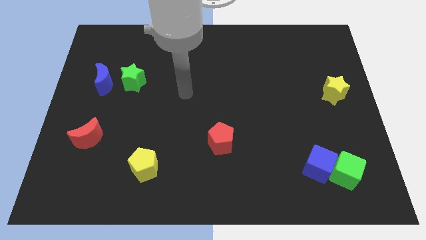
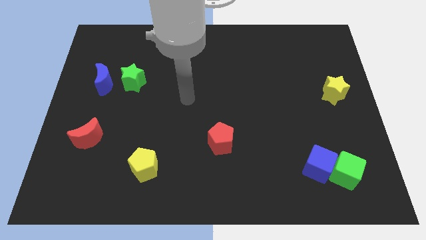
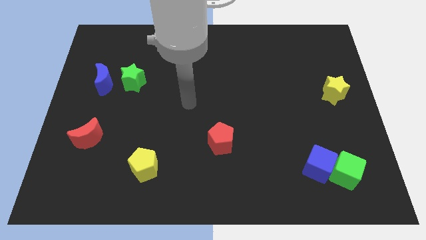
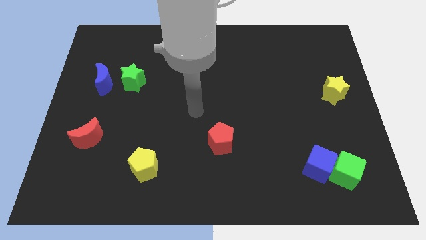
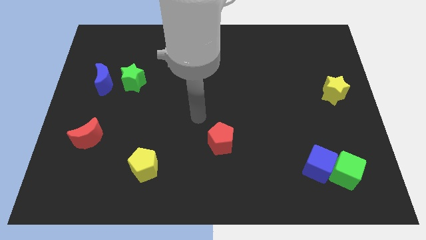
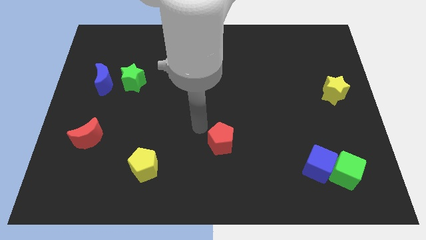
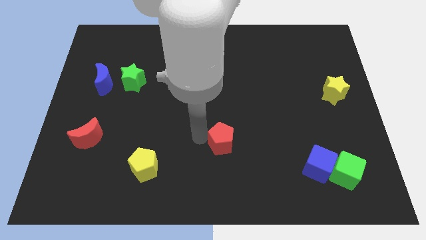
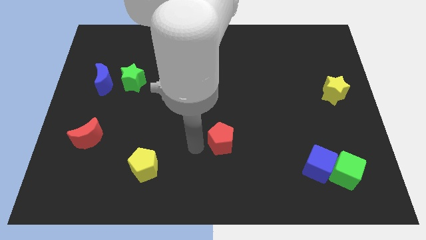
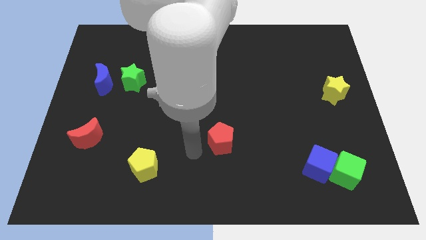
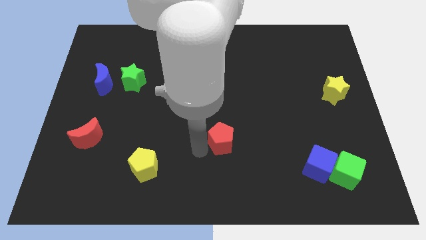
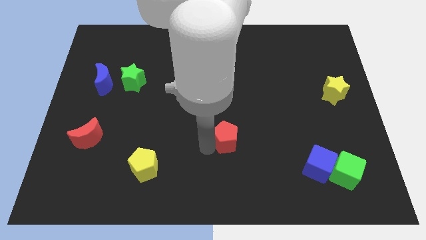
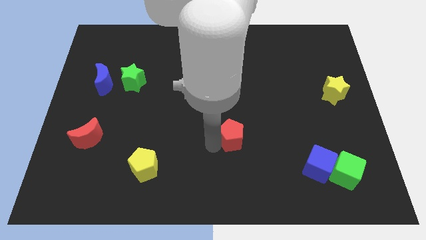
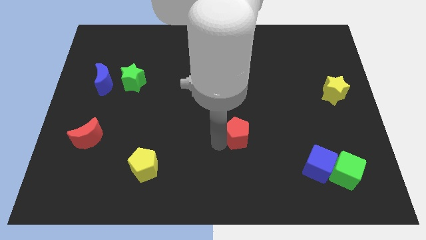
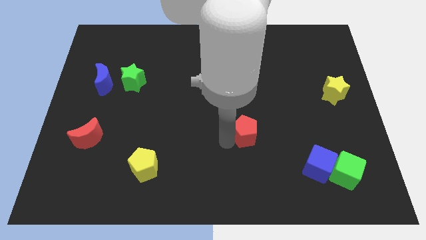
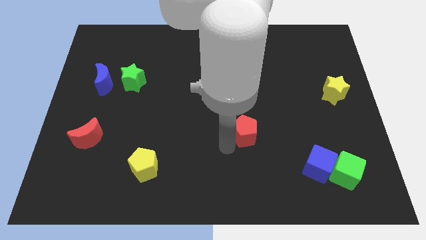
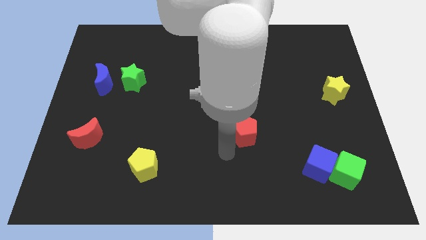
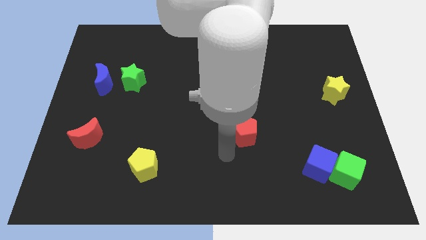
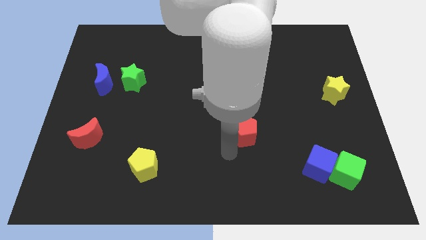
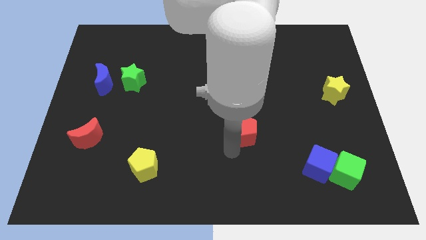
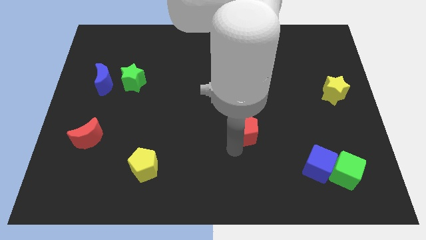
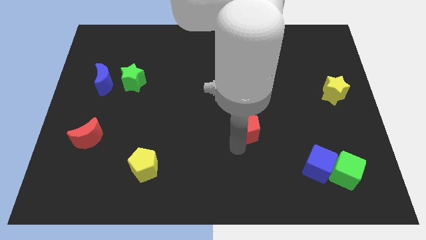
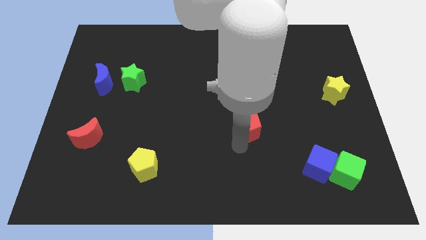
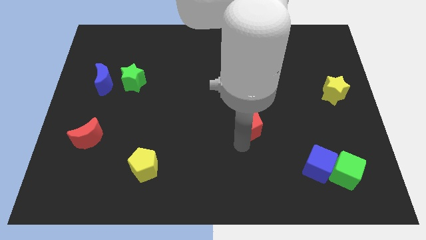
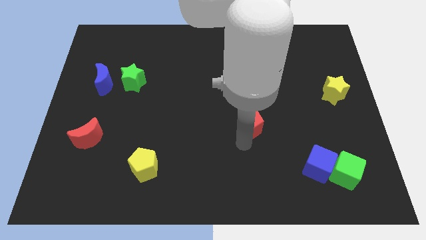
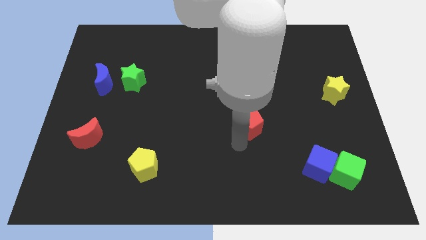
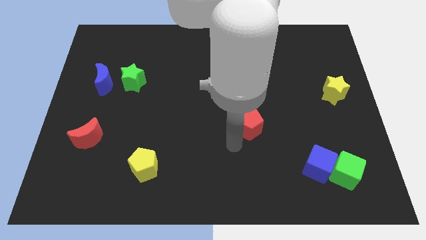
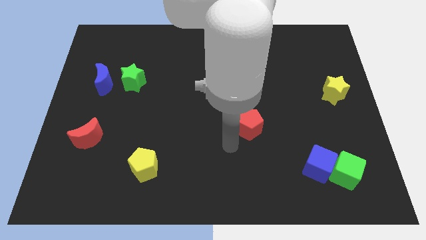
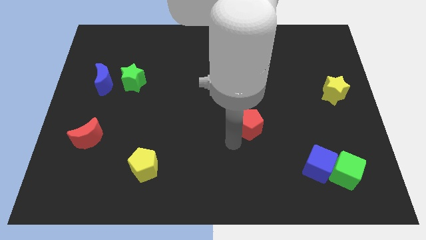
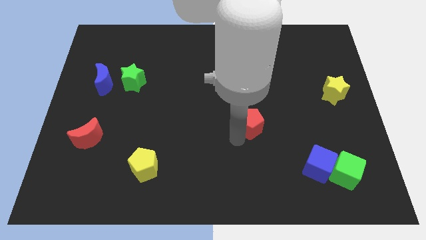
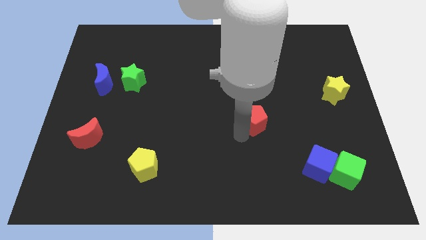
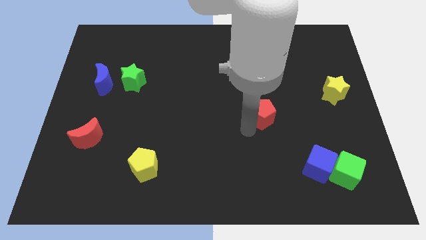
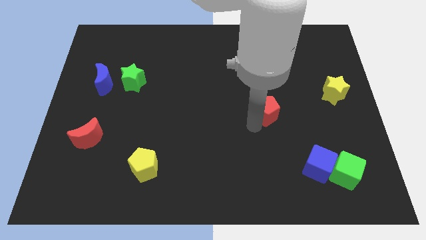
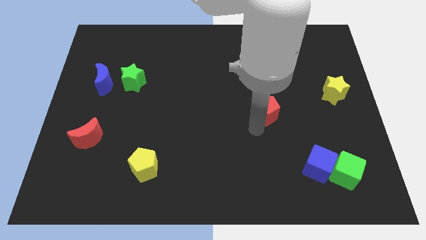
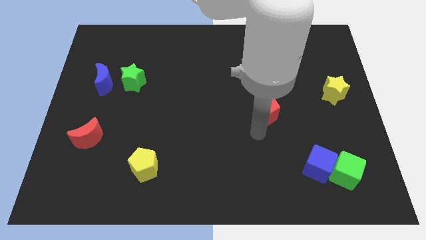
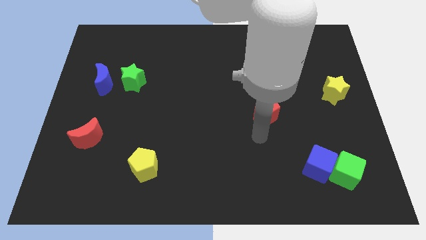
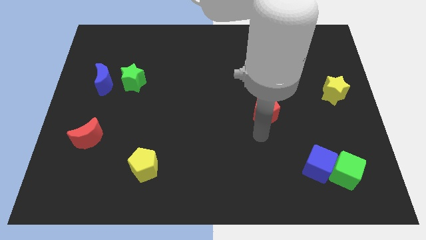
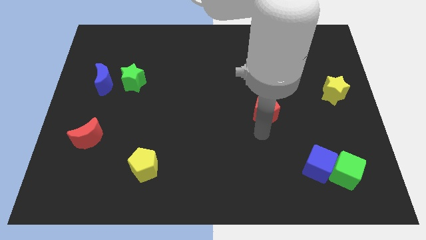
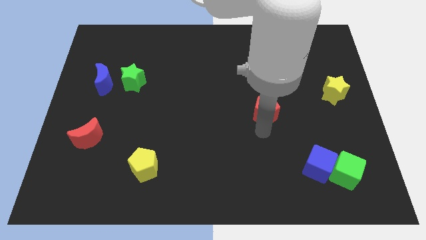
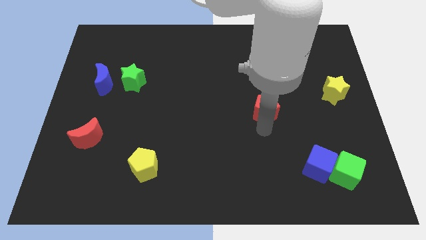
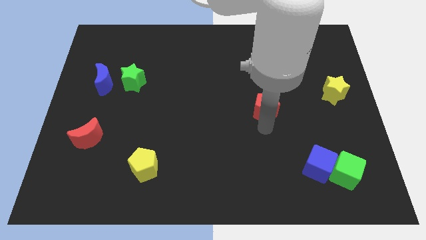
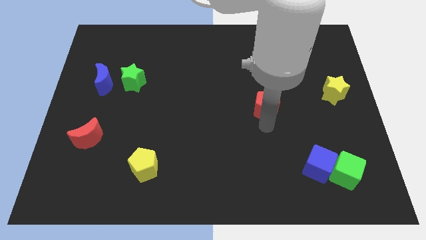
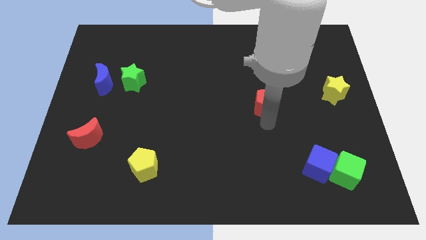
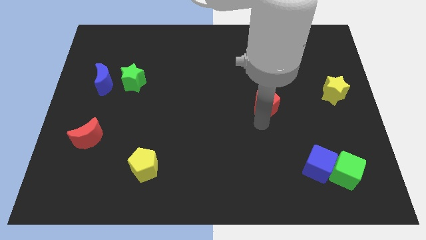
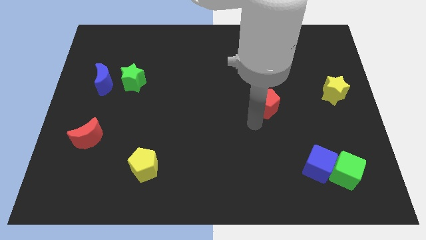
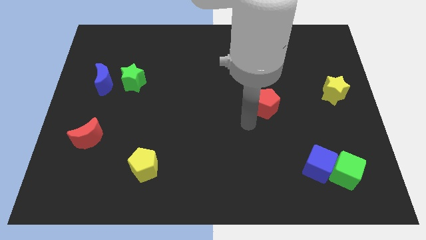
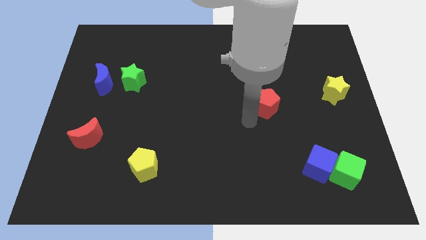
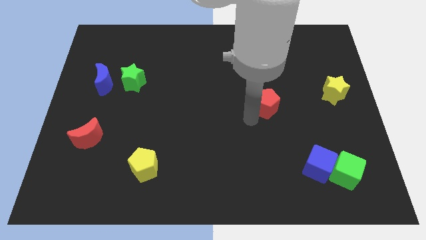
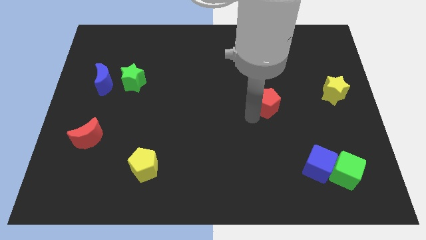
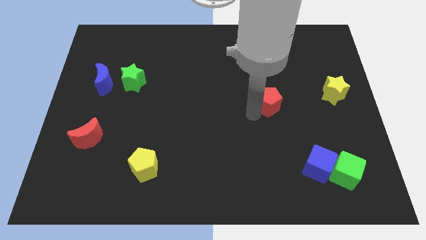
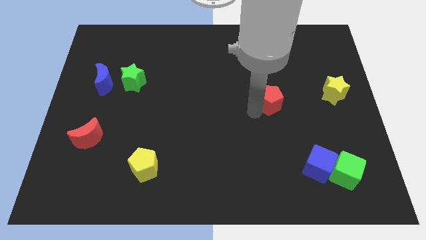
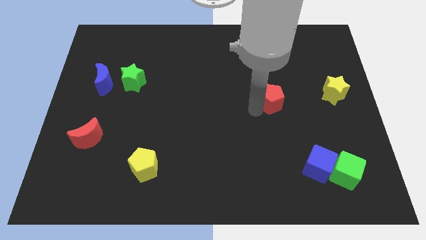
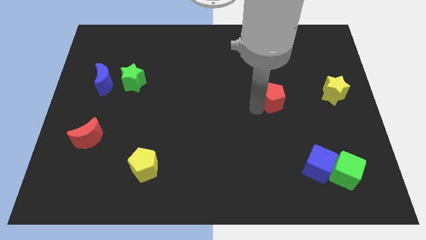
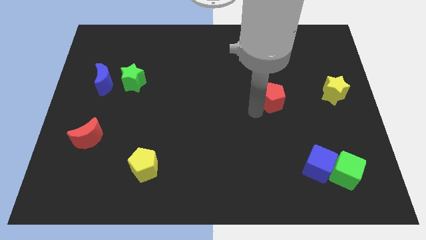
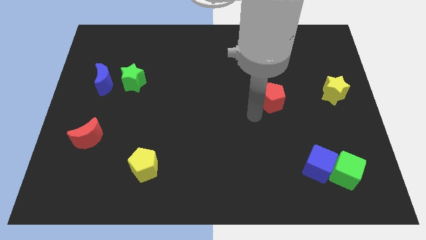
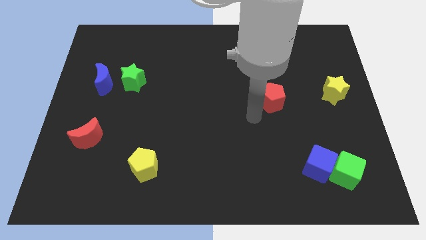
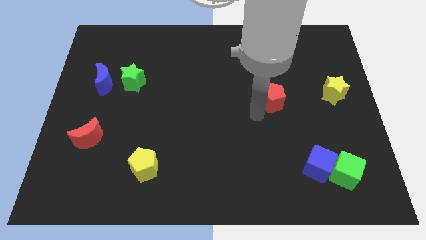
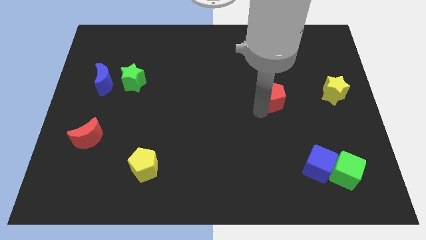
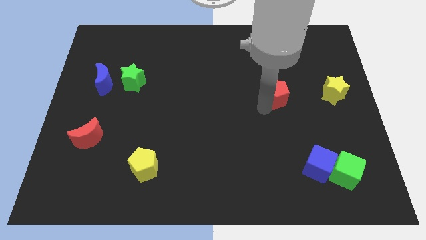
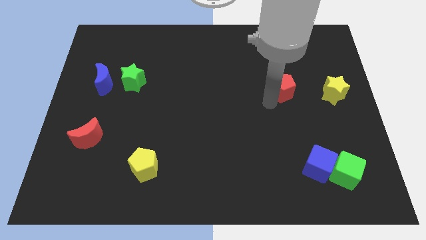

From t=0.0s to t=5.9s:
slide the red pentagon up and right

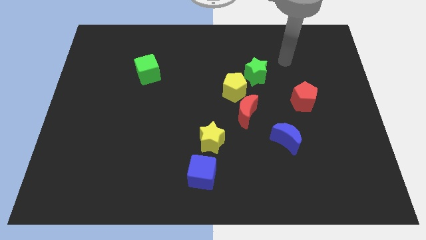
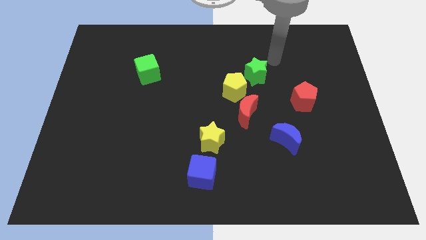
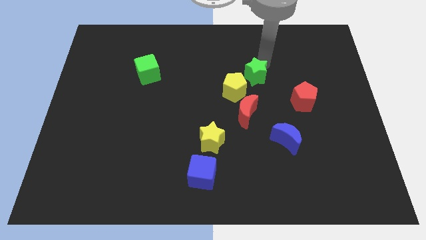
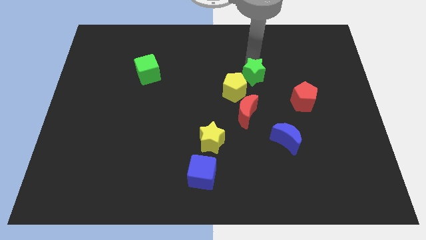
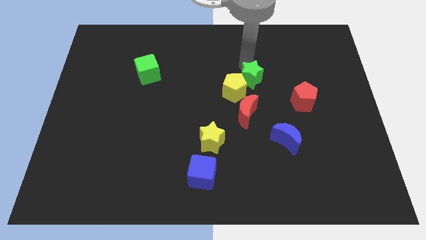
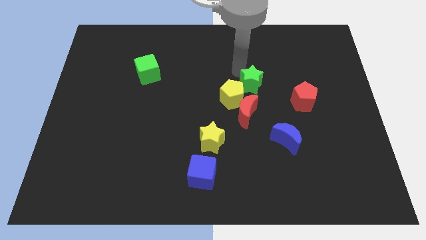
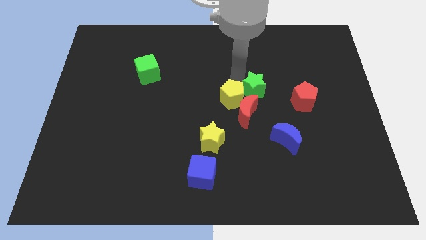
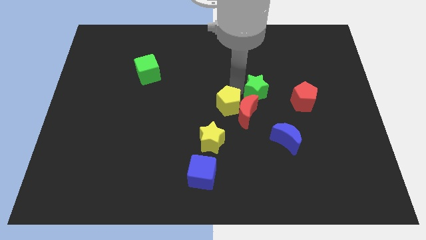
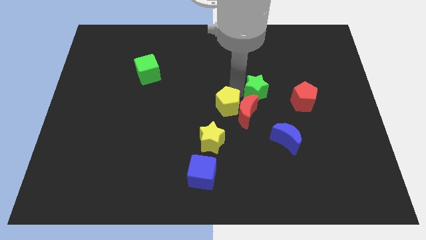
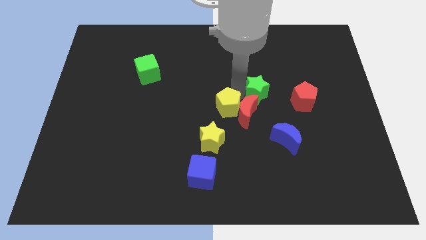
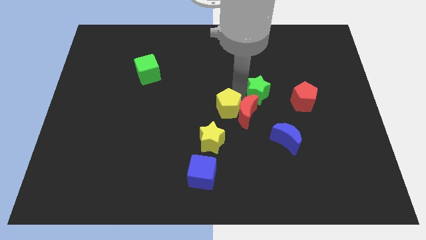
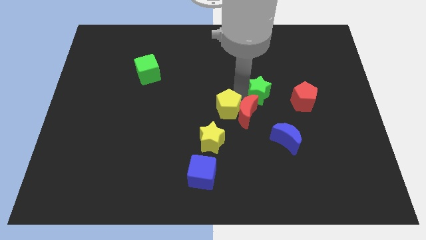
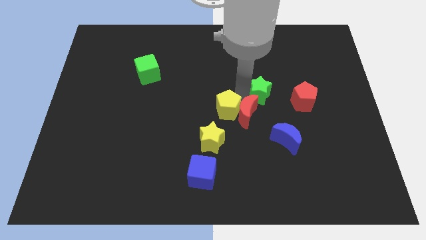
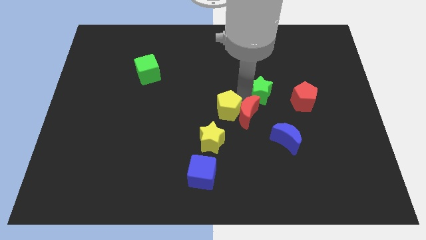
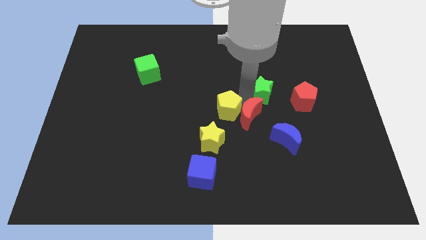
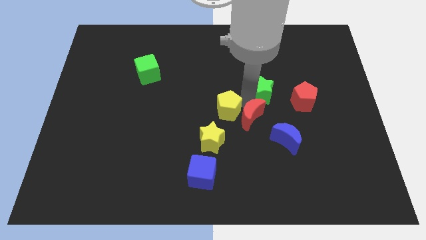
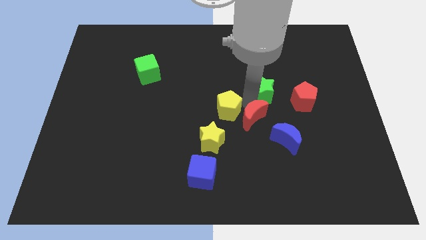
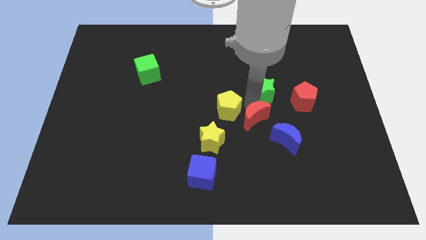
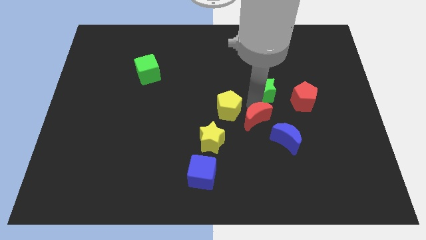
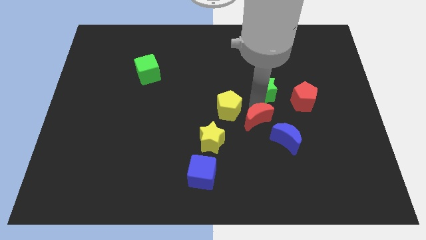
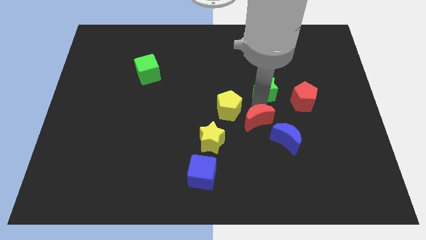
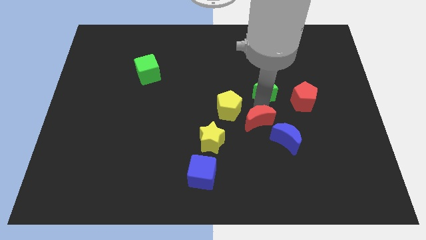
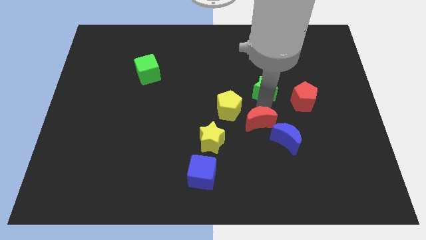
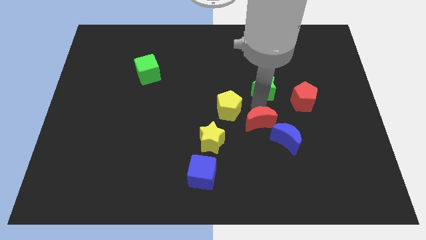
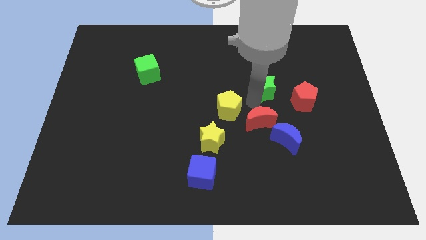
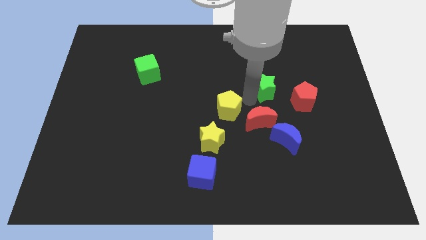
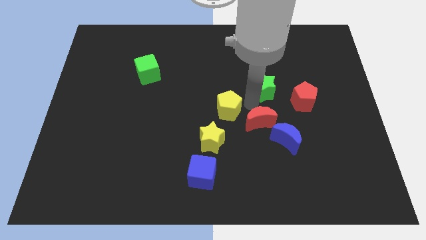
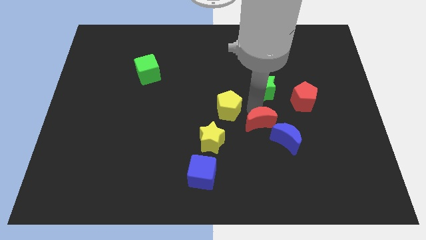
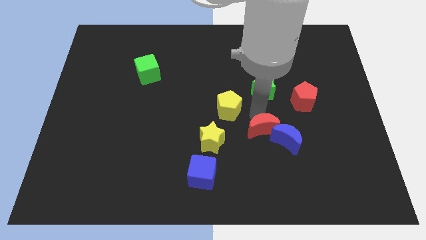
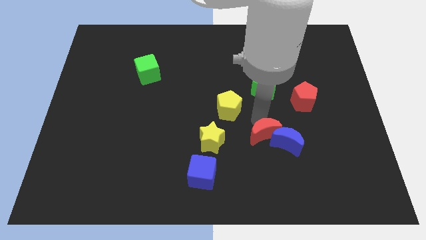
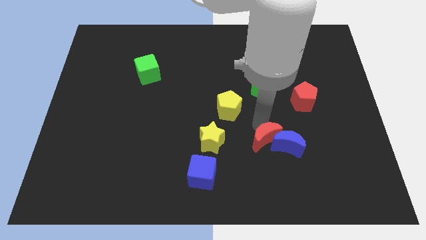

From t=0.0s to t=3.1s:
slightly push the red moon diagonally down and to the right
